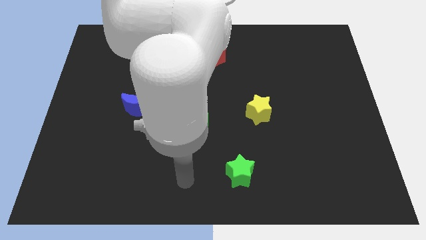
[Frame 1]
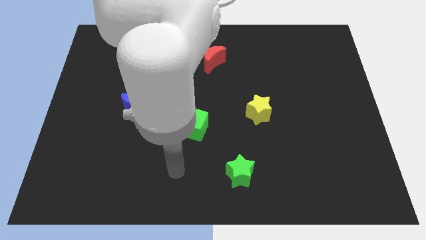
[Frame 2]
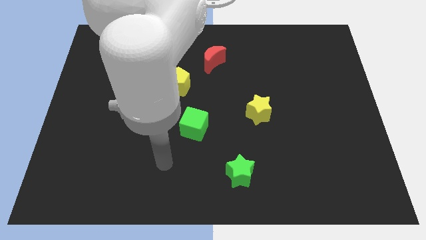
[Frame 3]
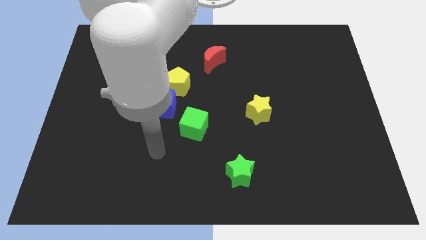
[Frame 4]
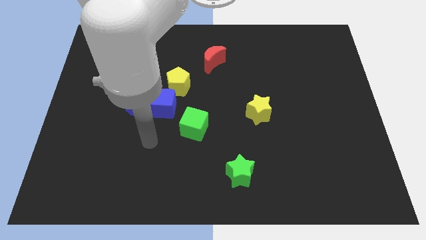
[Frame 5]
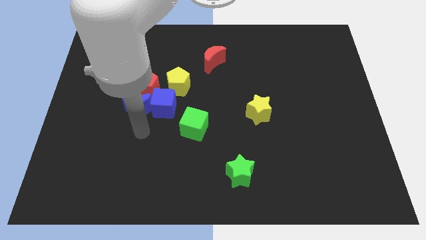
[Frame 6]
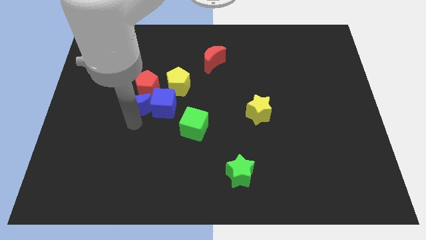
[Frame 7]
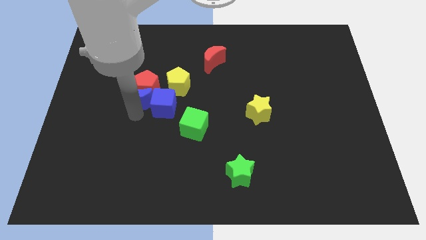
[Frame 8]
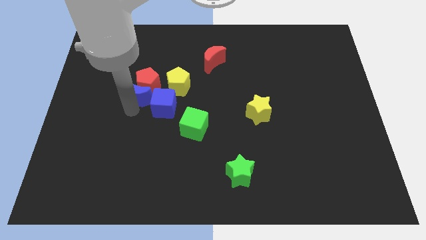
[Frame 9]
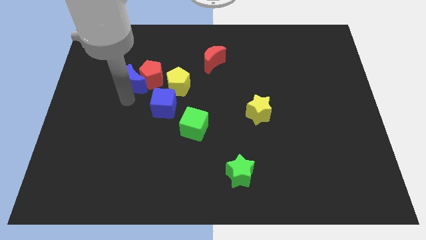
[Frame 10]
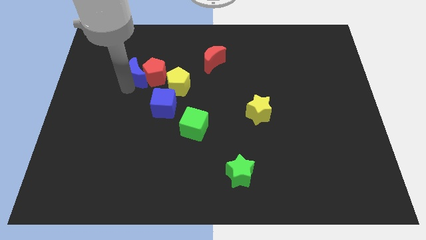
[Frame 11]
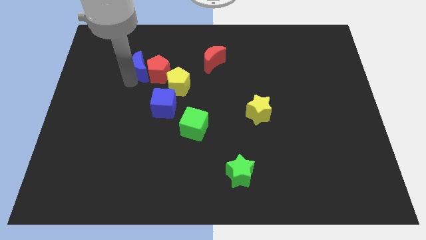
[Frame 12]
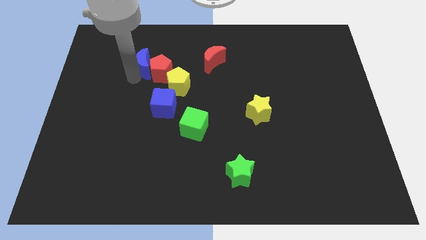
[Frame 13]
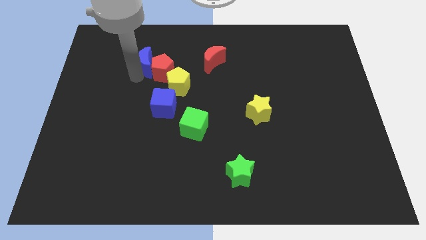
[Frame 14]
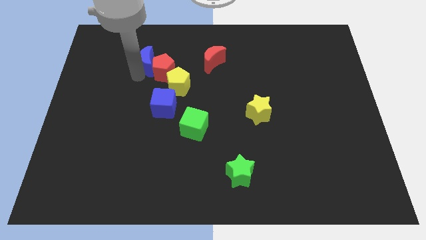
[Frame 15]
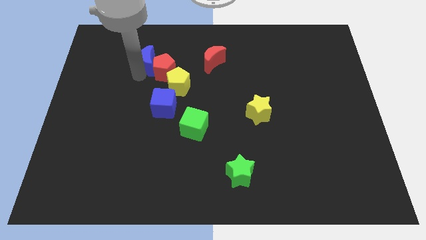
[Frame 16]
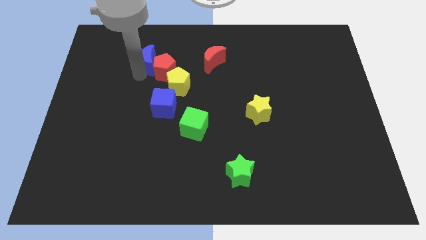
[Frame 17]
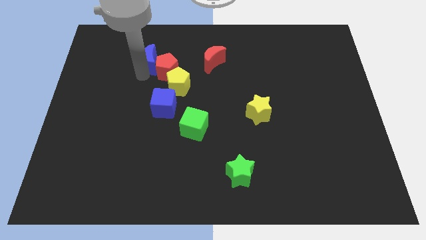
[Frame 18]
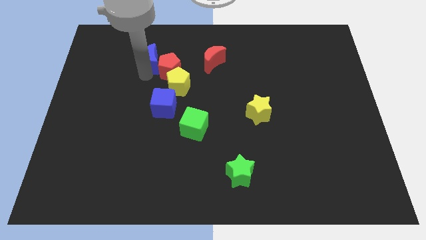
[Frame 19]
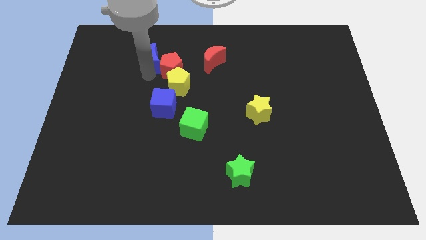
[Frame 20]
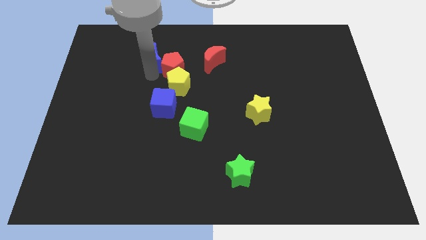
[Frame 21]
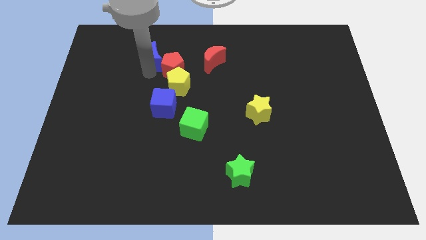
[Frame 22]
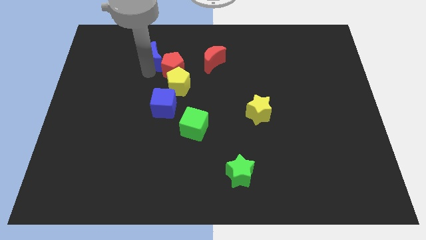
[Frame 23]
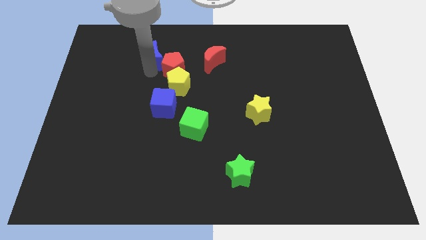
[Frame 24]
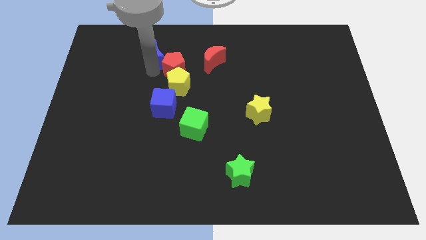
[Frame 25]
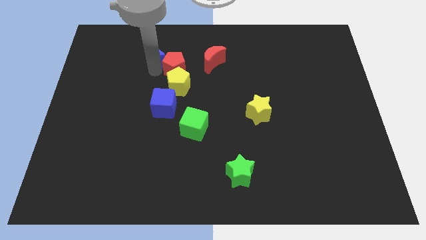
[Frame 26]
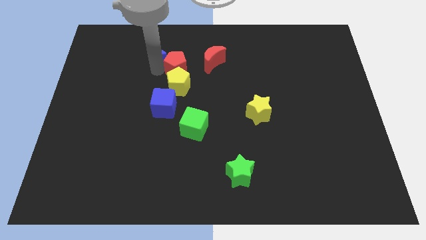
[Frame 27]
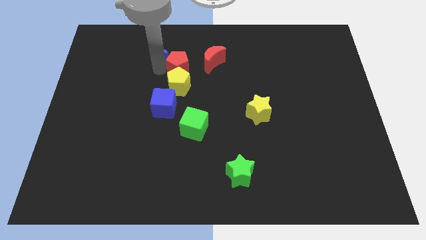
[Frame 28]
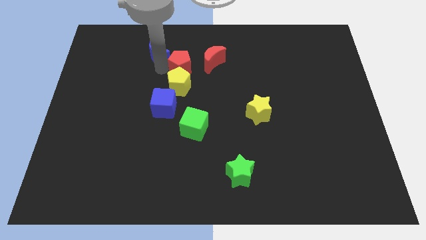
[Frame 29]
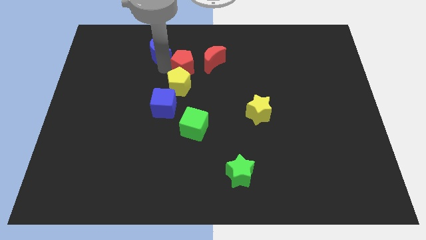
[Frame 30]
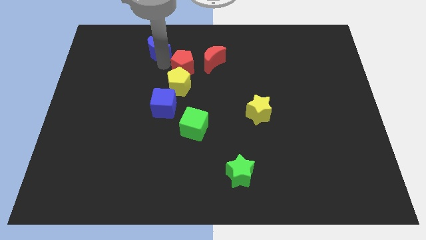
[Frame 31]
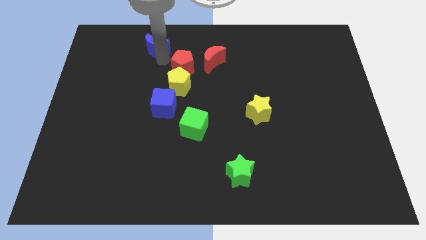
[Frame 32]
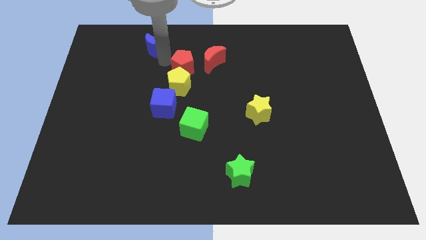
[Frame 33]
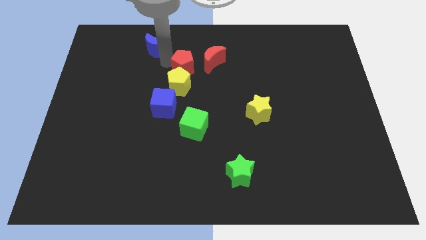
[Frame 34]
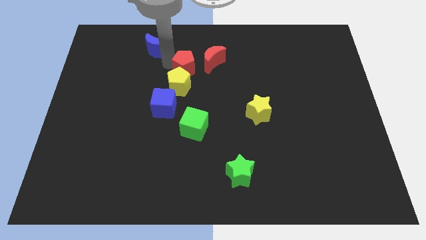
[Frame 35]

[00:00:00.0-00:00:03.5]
move the red pentagon to the right slightly

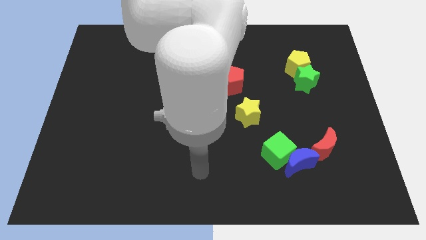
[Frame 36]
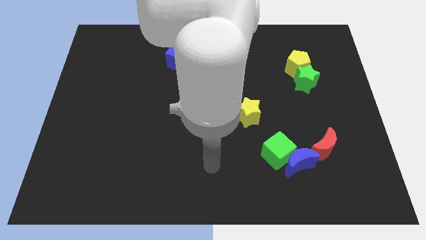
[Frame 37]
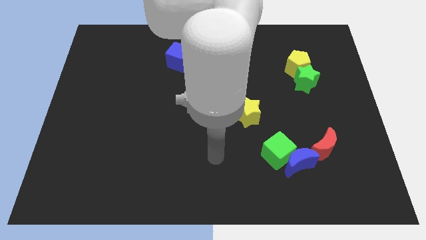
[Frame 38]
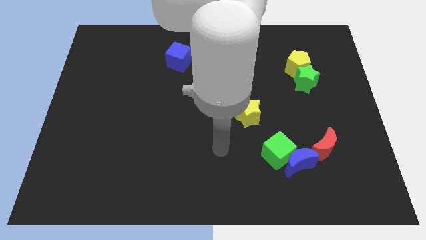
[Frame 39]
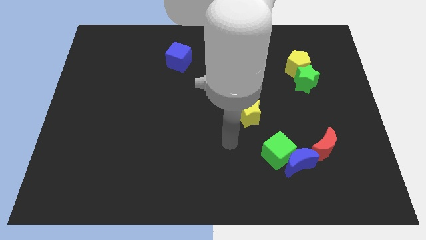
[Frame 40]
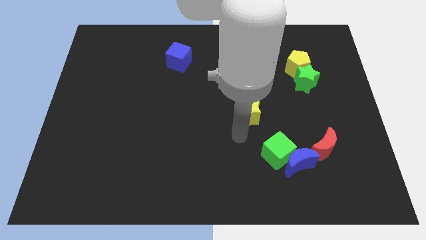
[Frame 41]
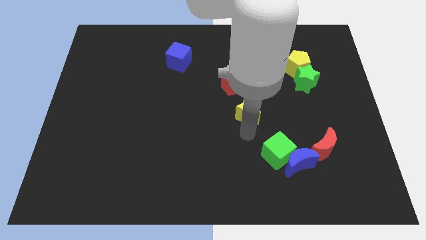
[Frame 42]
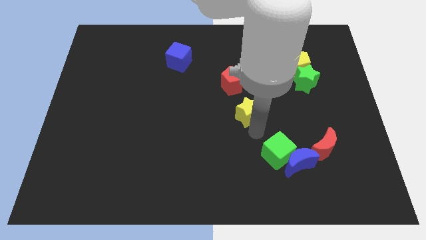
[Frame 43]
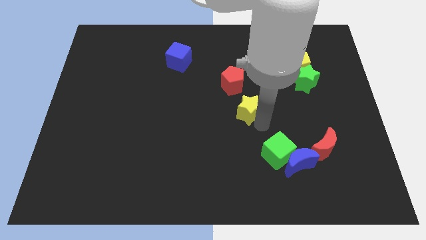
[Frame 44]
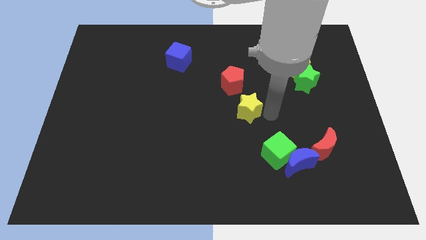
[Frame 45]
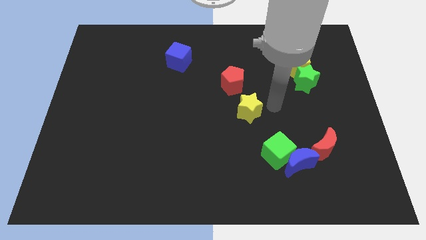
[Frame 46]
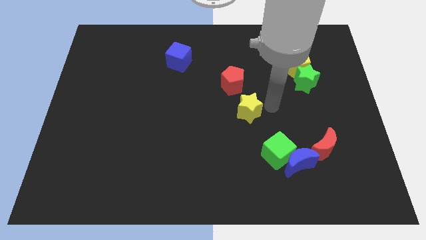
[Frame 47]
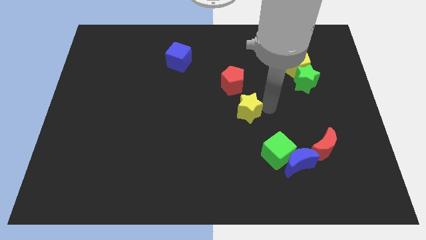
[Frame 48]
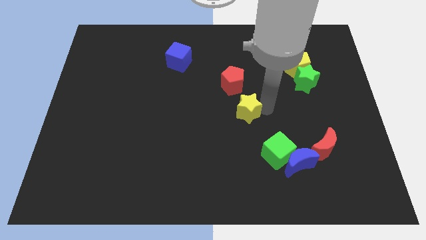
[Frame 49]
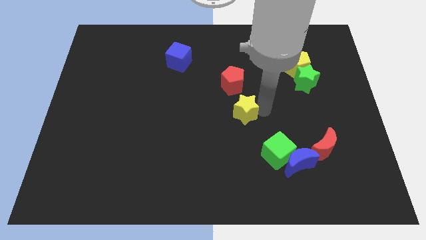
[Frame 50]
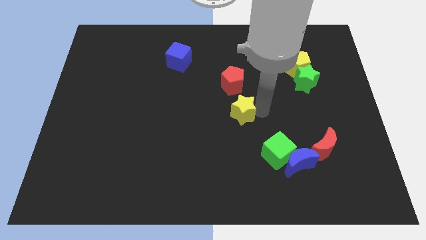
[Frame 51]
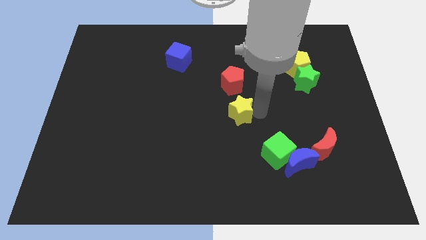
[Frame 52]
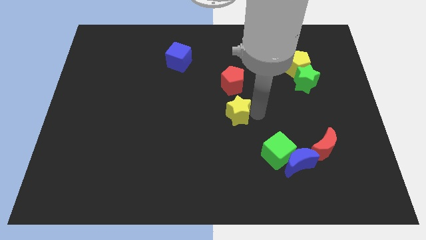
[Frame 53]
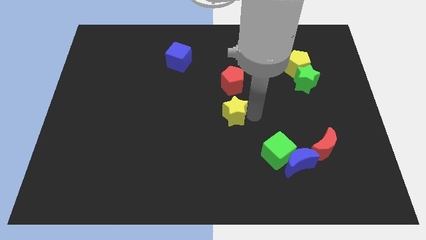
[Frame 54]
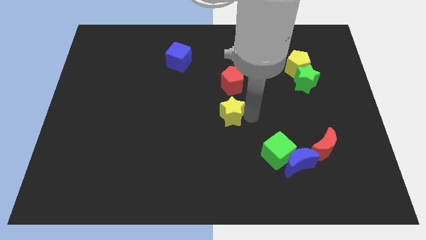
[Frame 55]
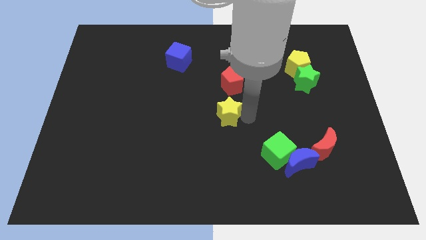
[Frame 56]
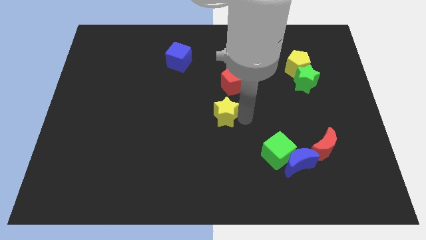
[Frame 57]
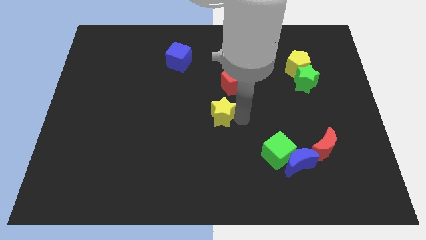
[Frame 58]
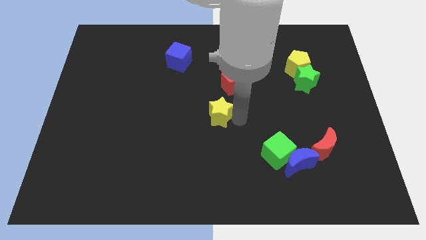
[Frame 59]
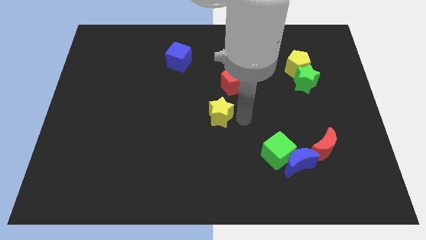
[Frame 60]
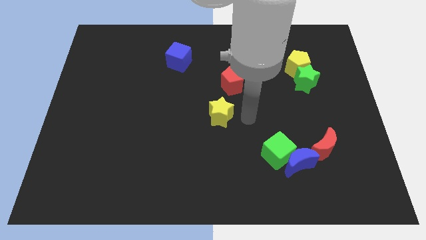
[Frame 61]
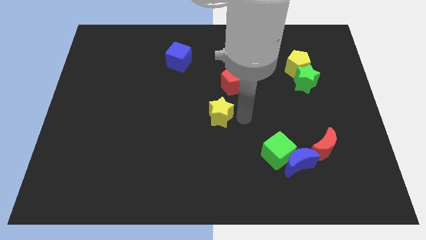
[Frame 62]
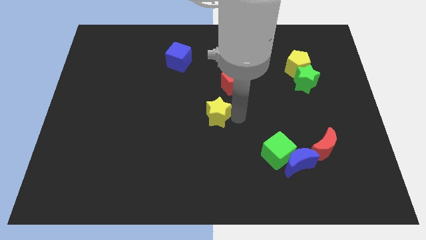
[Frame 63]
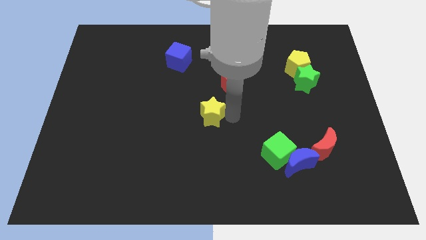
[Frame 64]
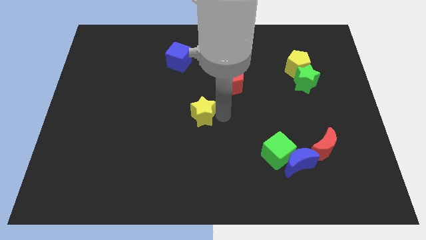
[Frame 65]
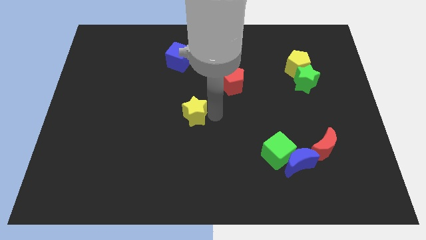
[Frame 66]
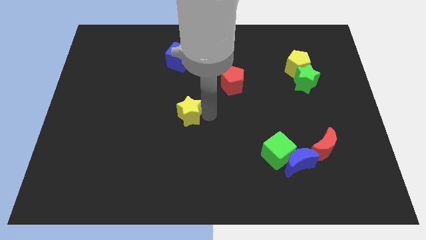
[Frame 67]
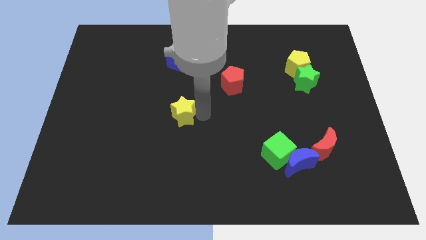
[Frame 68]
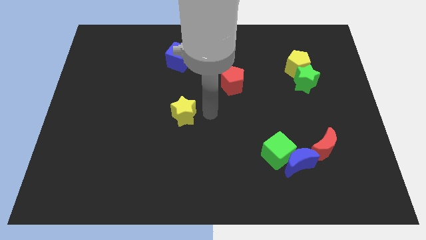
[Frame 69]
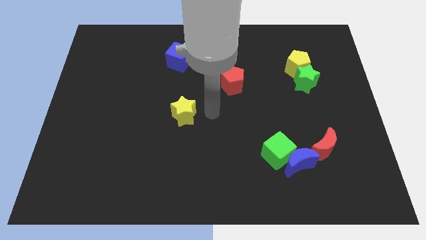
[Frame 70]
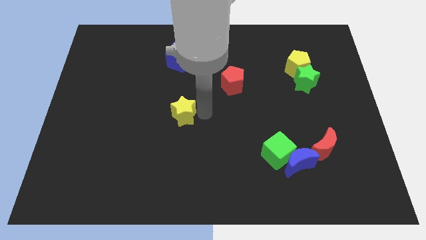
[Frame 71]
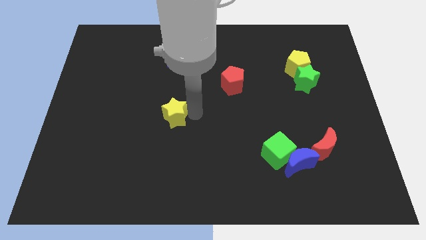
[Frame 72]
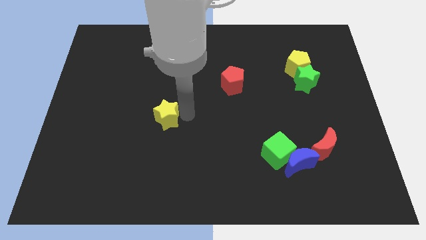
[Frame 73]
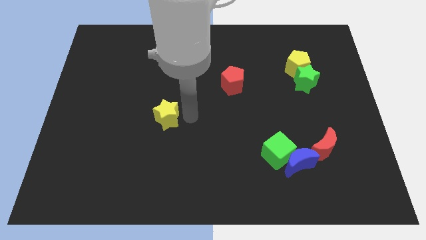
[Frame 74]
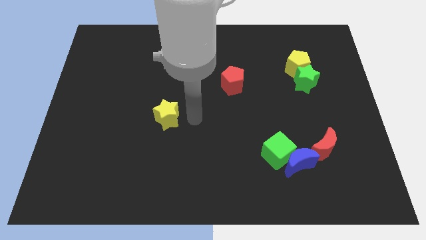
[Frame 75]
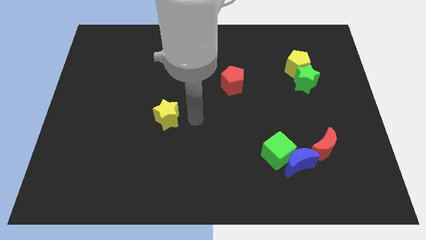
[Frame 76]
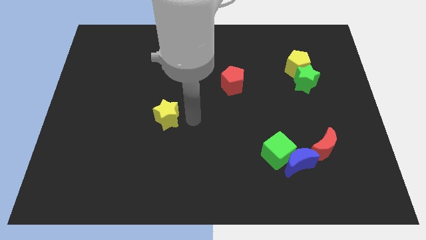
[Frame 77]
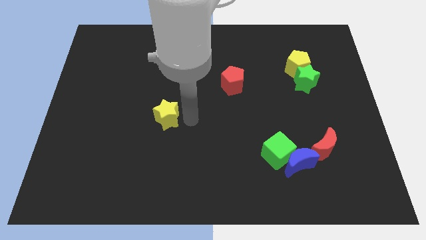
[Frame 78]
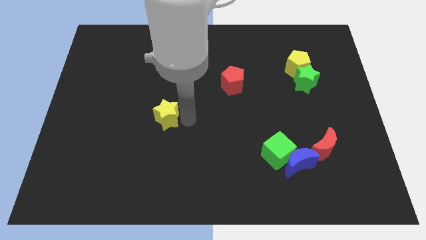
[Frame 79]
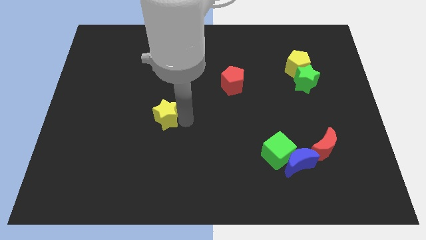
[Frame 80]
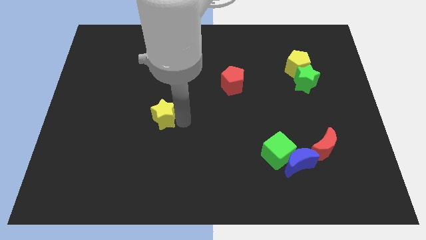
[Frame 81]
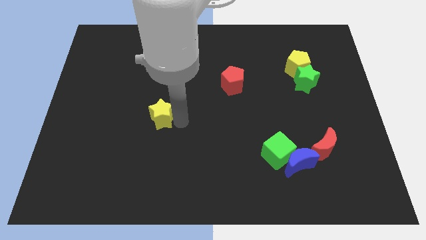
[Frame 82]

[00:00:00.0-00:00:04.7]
slide the yellow star left
